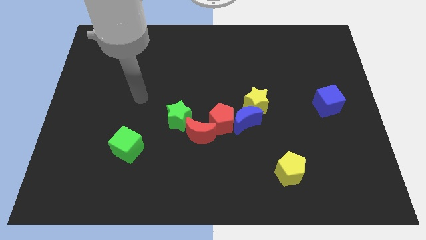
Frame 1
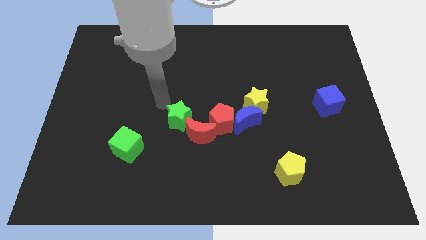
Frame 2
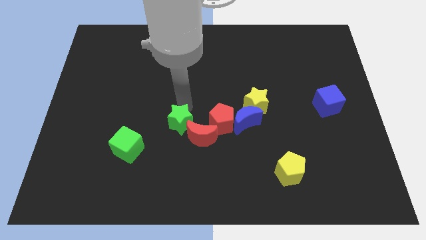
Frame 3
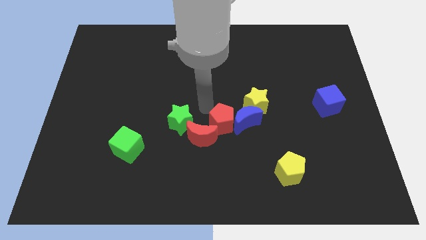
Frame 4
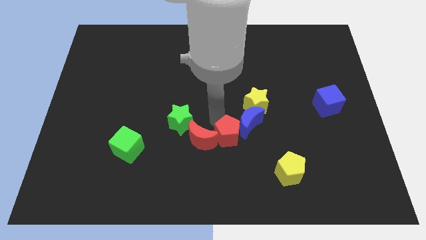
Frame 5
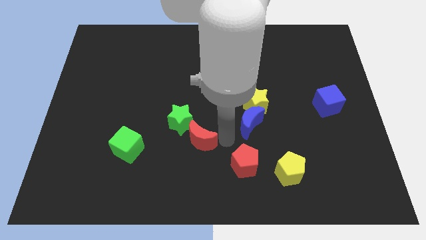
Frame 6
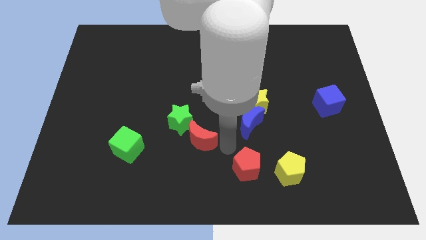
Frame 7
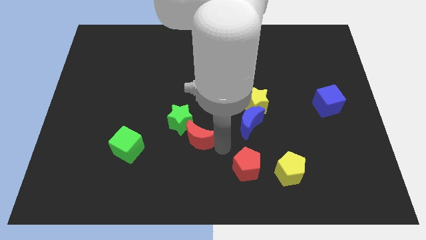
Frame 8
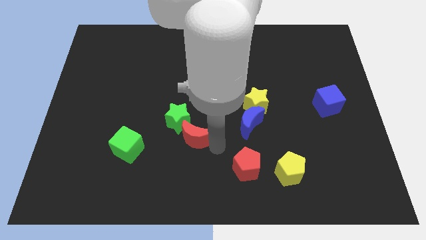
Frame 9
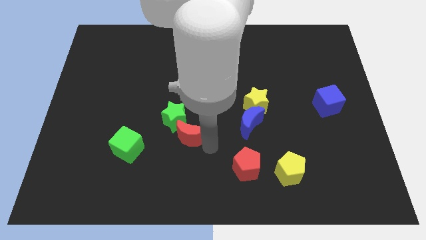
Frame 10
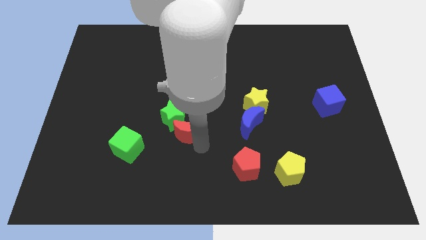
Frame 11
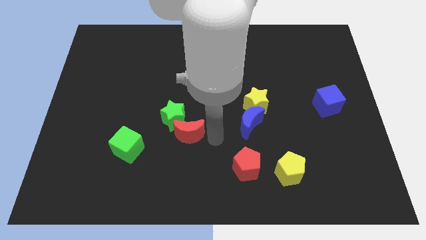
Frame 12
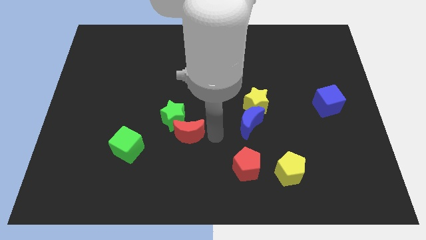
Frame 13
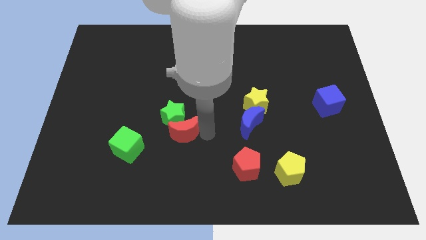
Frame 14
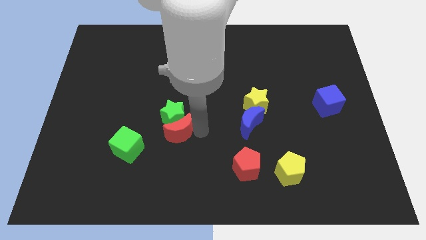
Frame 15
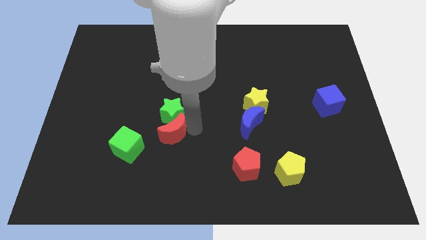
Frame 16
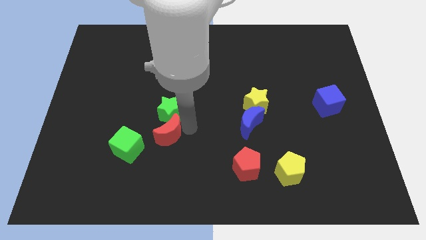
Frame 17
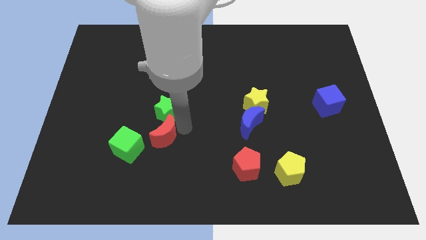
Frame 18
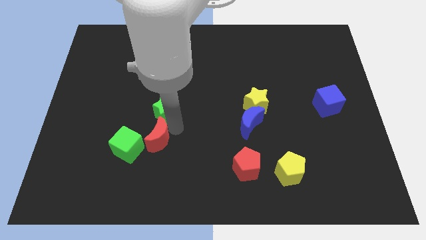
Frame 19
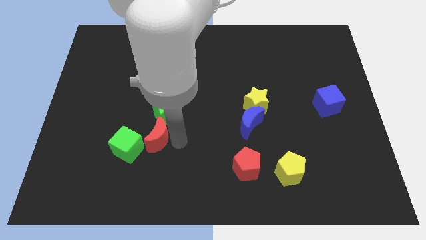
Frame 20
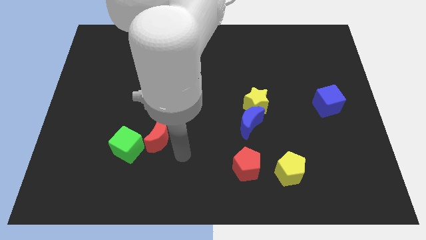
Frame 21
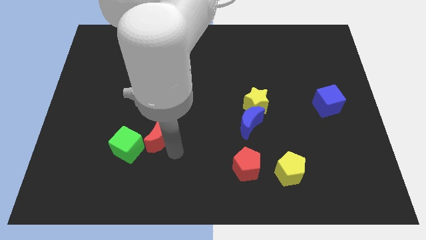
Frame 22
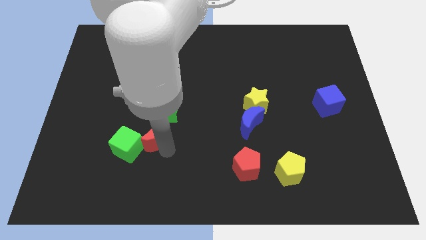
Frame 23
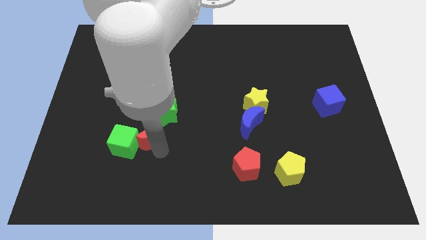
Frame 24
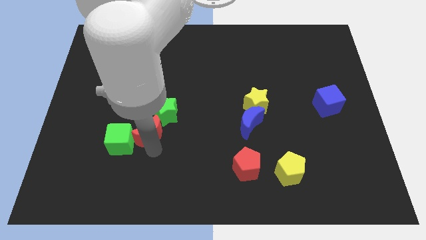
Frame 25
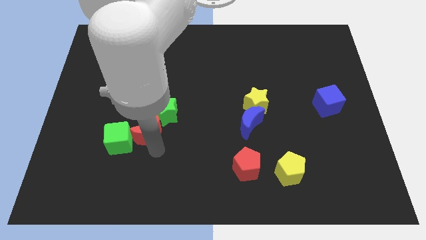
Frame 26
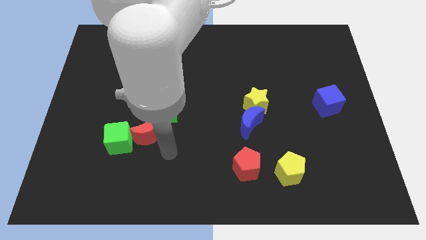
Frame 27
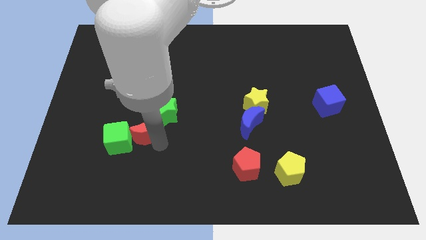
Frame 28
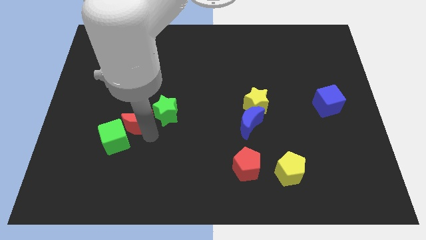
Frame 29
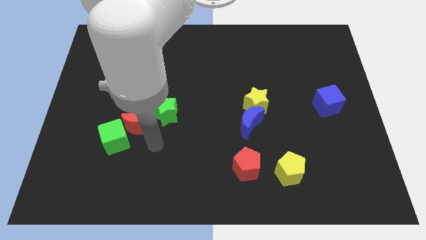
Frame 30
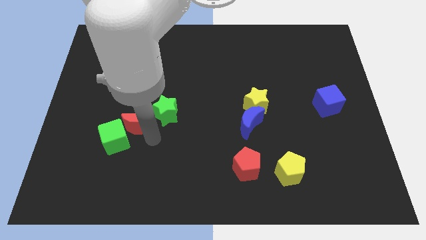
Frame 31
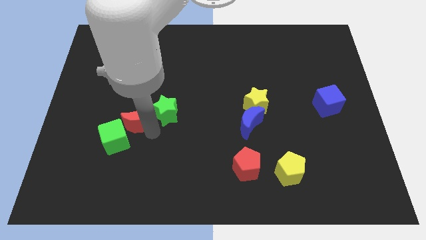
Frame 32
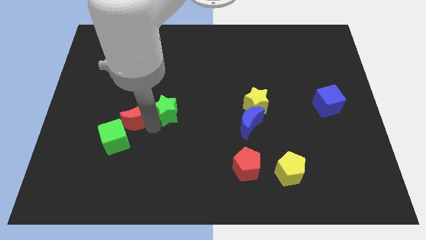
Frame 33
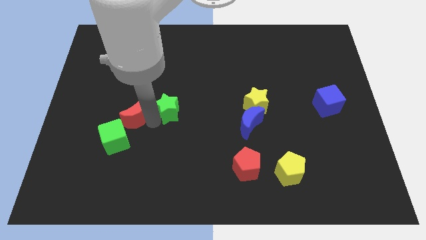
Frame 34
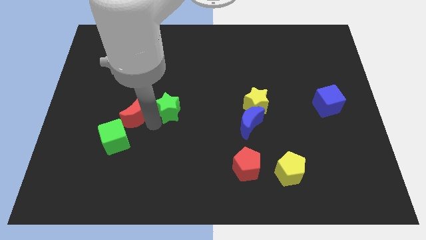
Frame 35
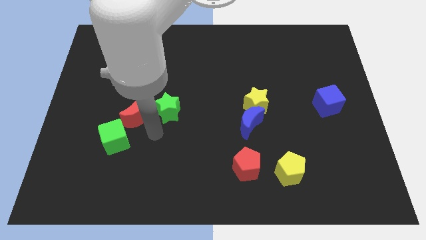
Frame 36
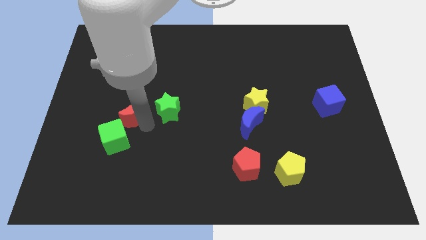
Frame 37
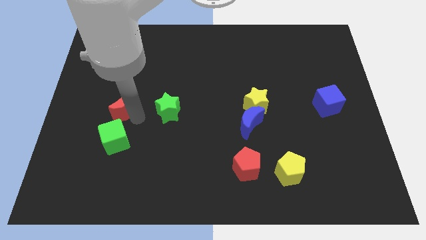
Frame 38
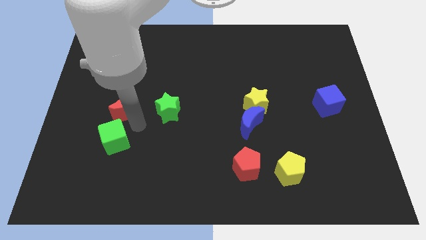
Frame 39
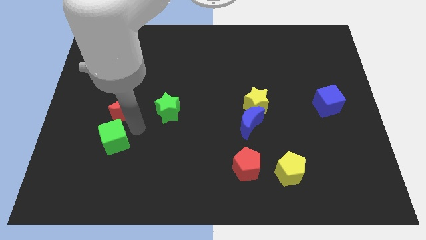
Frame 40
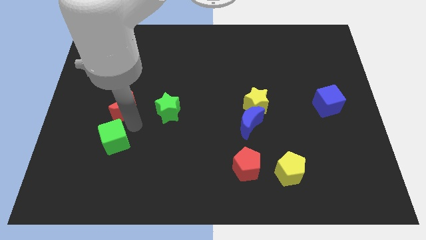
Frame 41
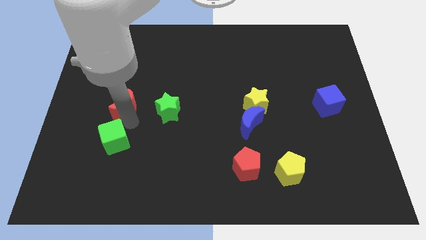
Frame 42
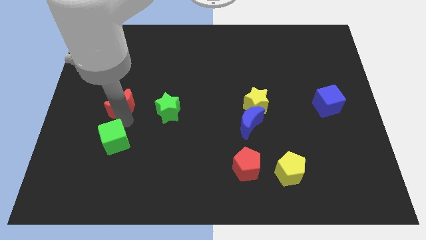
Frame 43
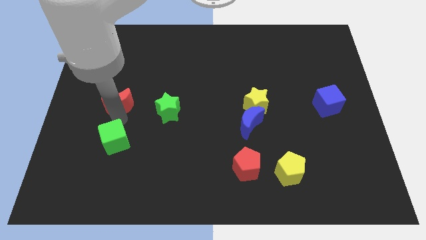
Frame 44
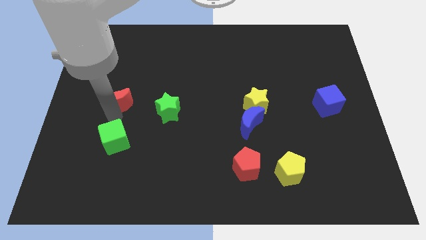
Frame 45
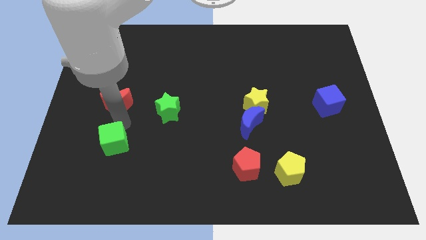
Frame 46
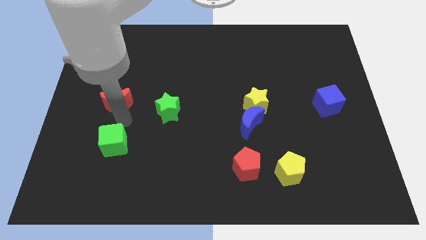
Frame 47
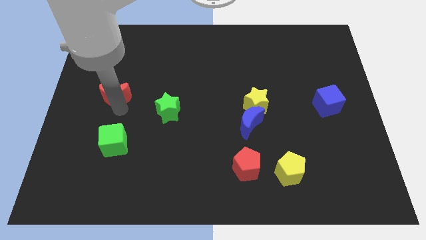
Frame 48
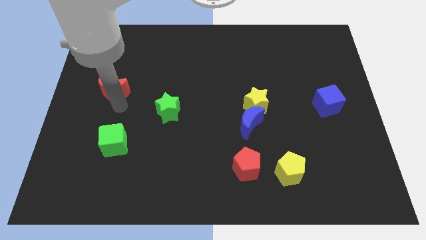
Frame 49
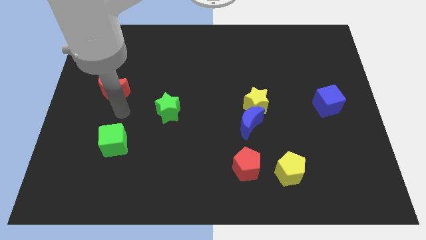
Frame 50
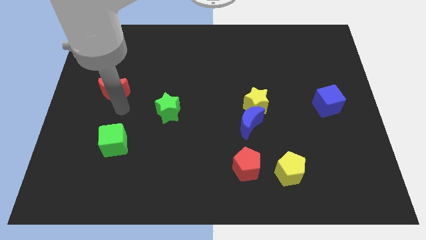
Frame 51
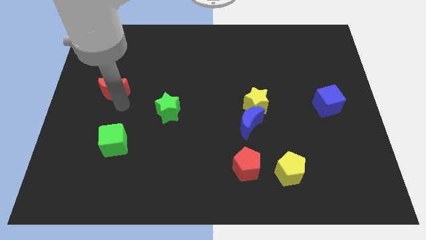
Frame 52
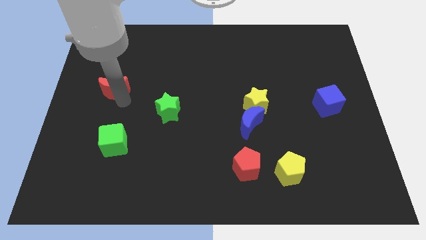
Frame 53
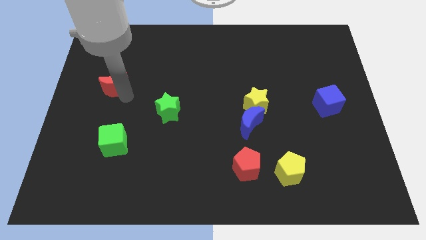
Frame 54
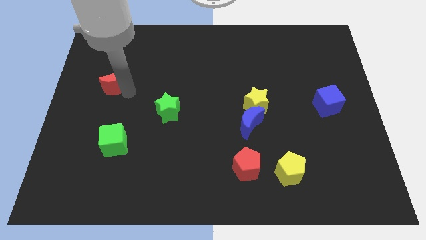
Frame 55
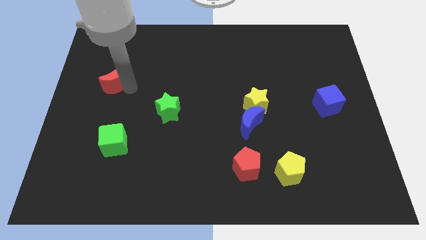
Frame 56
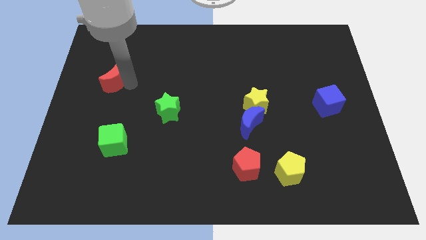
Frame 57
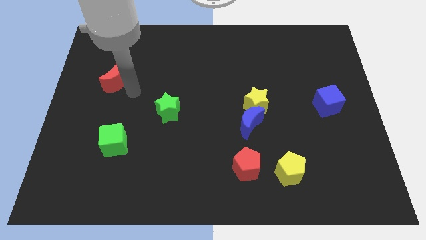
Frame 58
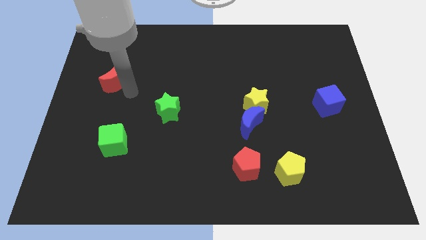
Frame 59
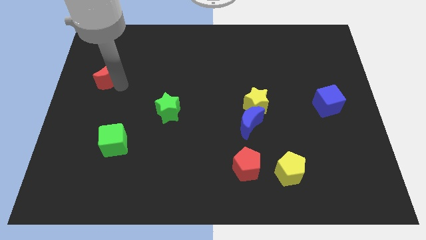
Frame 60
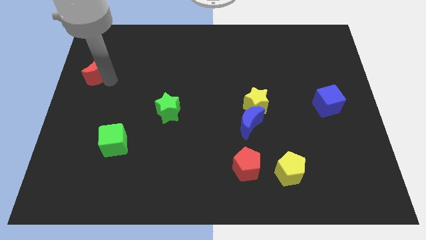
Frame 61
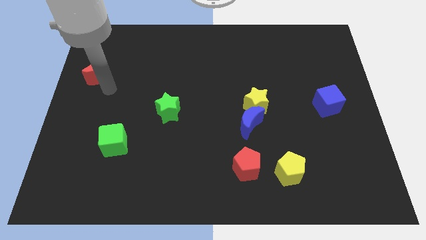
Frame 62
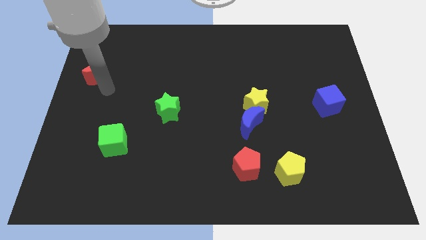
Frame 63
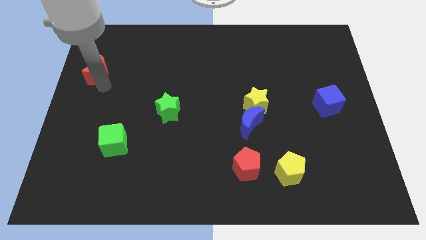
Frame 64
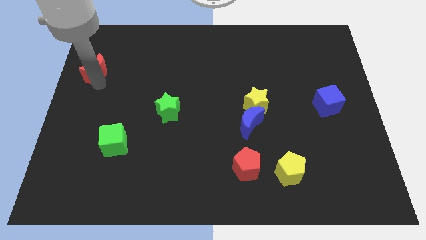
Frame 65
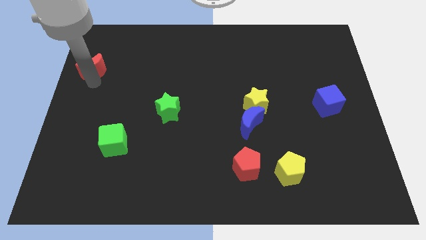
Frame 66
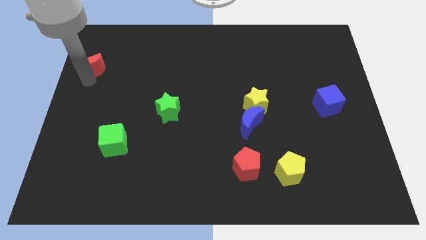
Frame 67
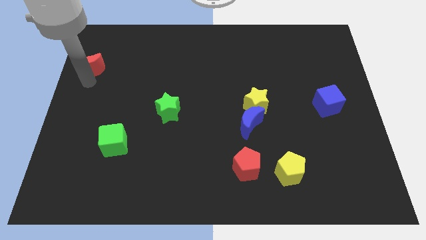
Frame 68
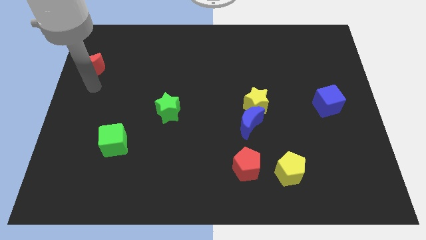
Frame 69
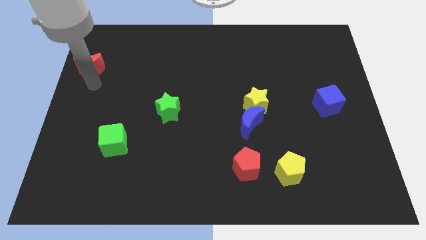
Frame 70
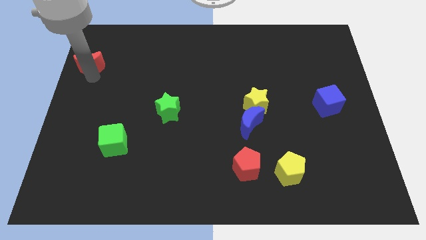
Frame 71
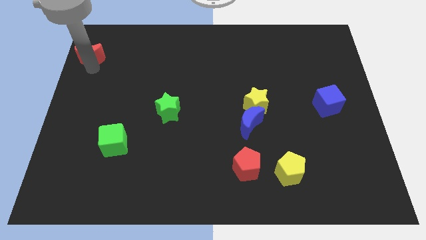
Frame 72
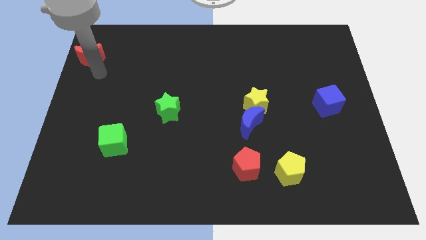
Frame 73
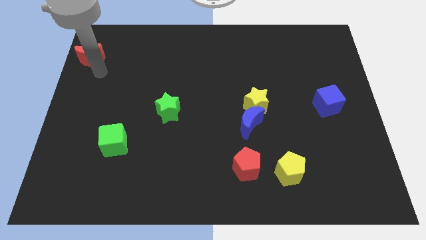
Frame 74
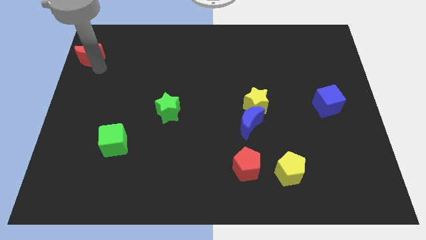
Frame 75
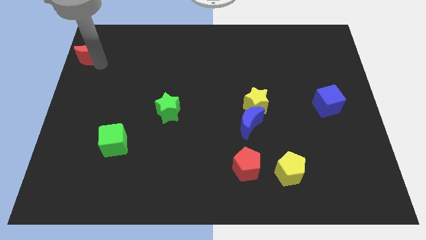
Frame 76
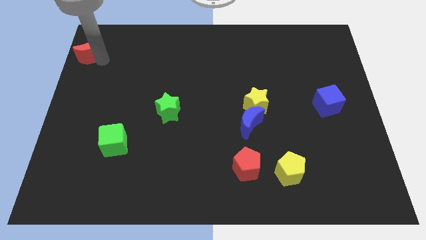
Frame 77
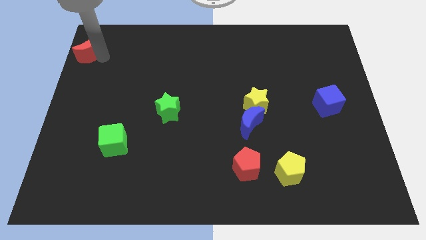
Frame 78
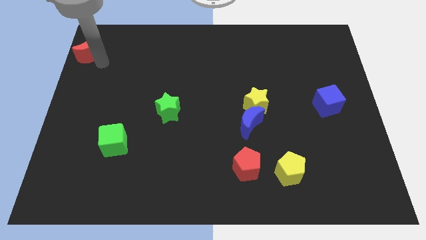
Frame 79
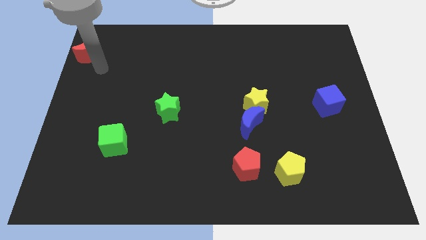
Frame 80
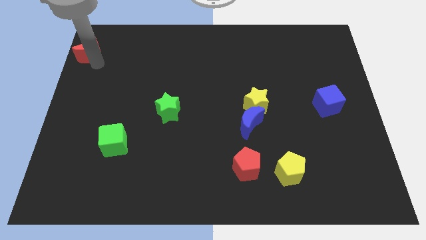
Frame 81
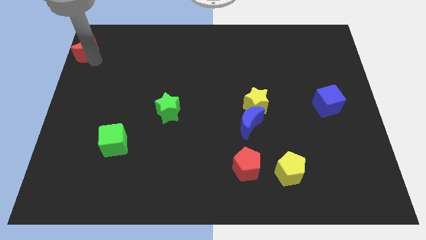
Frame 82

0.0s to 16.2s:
move the red moon to the top left
